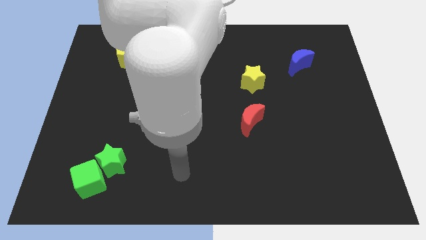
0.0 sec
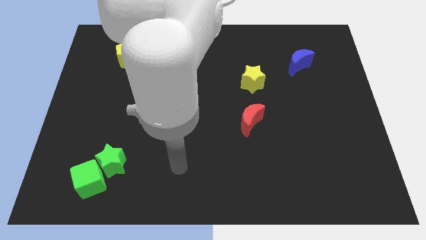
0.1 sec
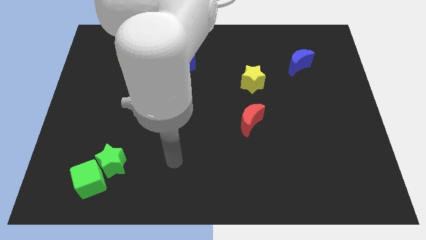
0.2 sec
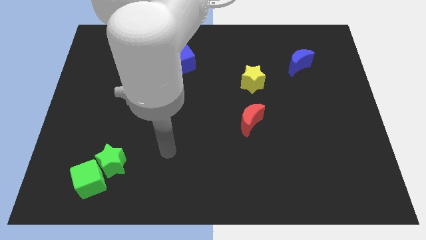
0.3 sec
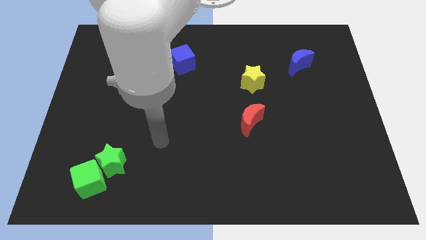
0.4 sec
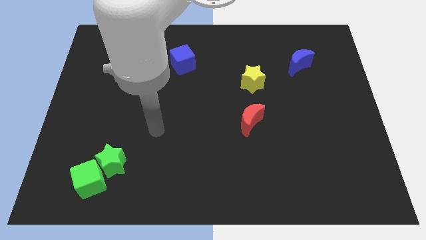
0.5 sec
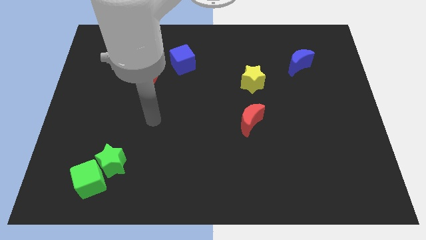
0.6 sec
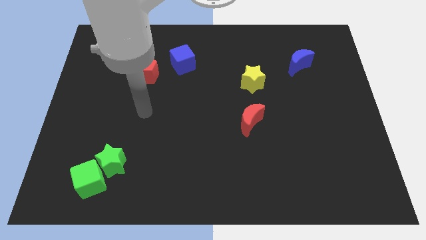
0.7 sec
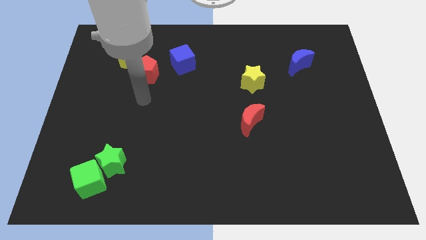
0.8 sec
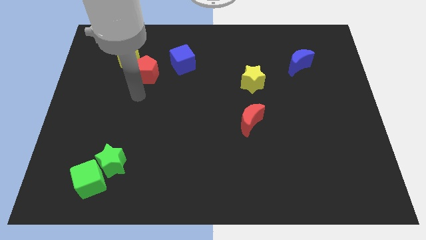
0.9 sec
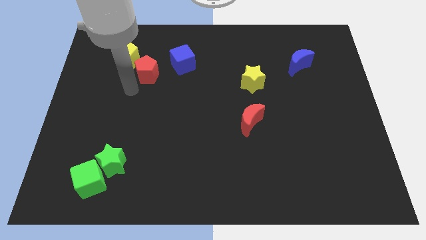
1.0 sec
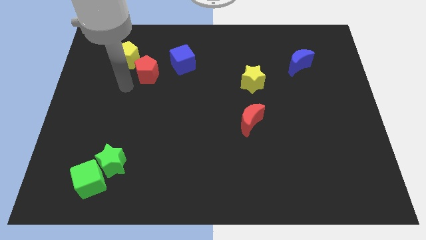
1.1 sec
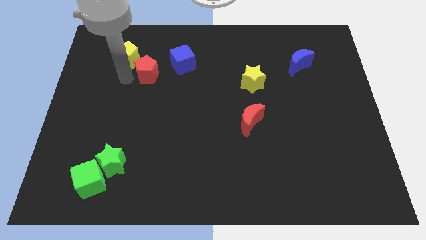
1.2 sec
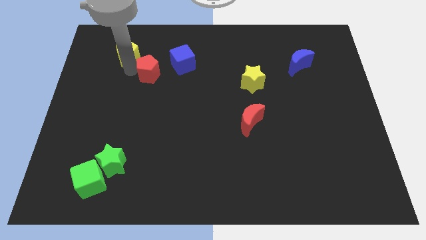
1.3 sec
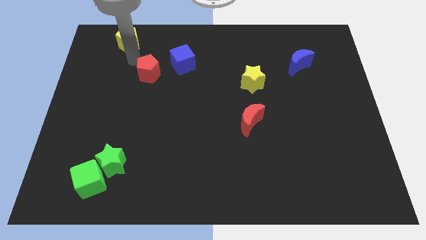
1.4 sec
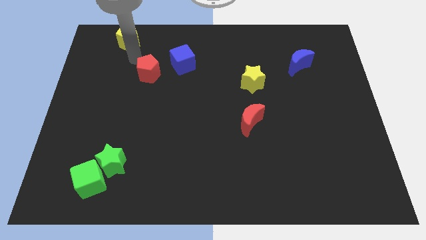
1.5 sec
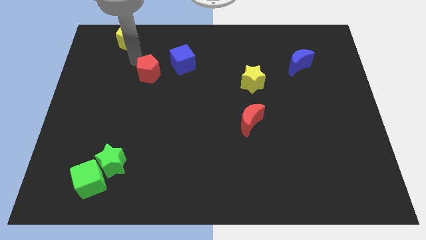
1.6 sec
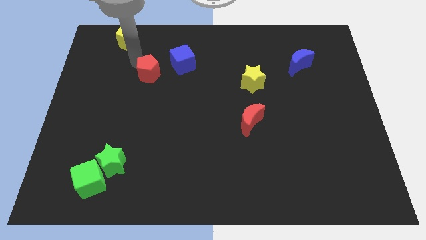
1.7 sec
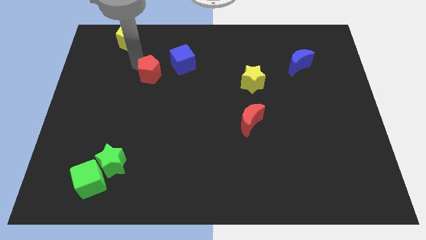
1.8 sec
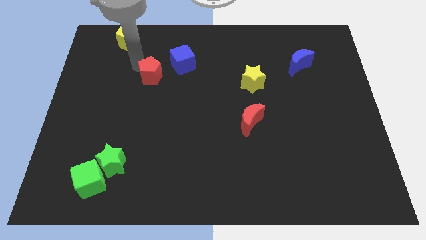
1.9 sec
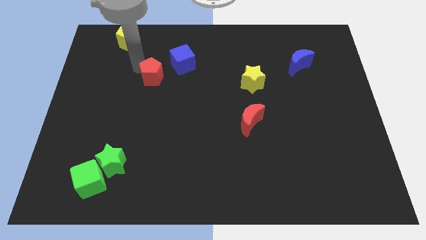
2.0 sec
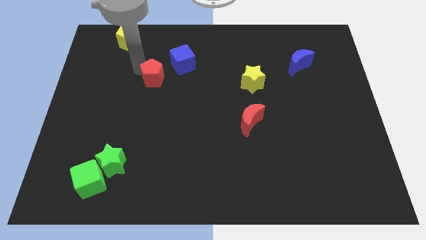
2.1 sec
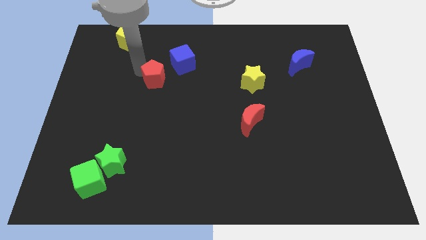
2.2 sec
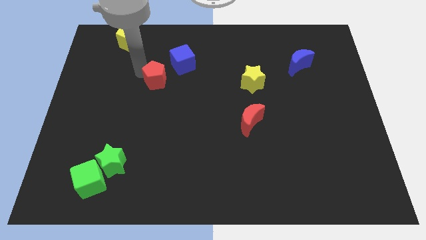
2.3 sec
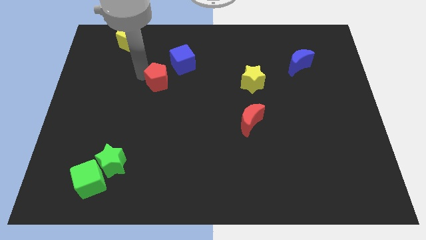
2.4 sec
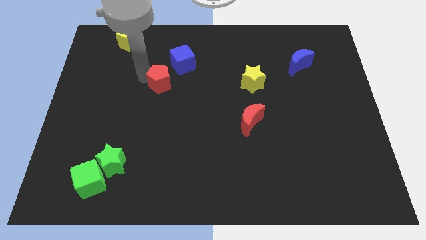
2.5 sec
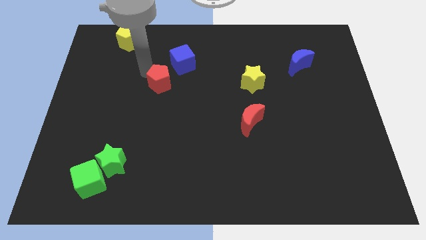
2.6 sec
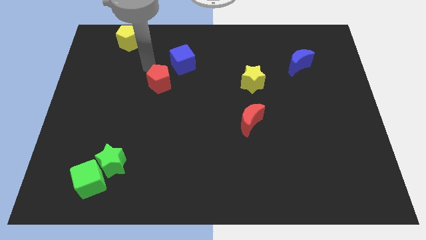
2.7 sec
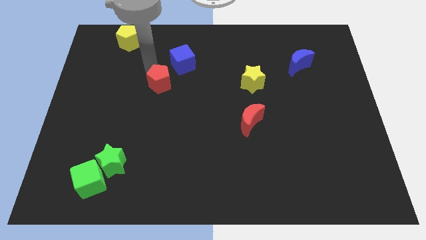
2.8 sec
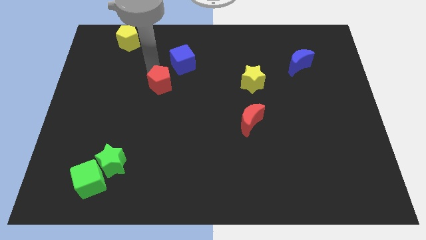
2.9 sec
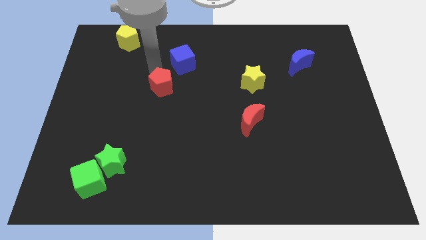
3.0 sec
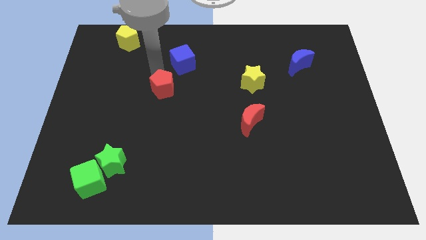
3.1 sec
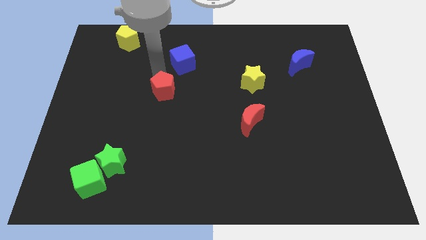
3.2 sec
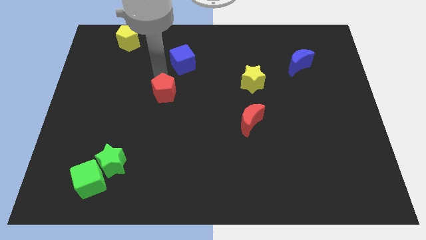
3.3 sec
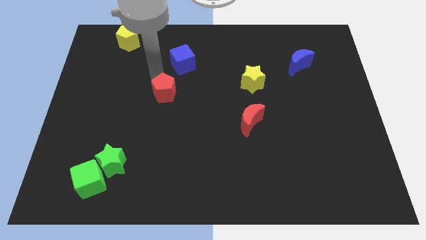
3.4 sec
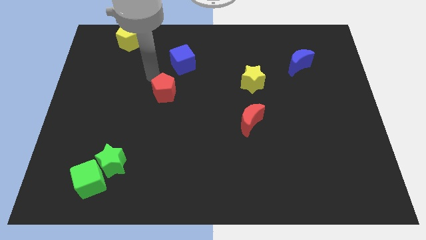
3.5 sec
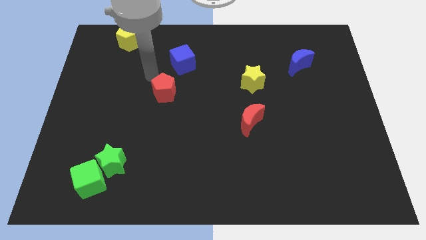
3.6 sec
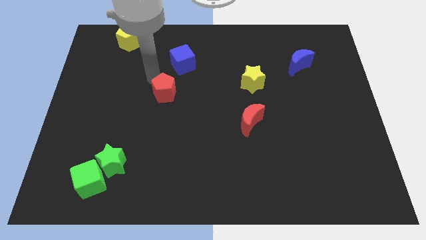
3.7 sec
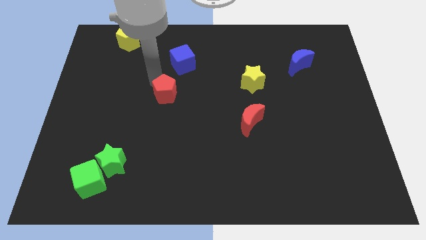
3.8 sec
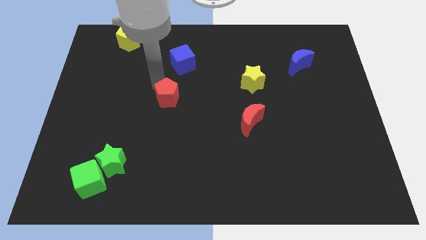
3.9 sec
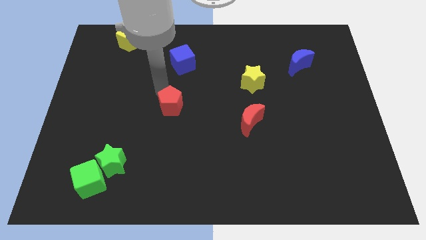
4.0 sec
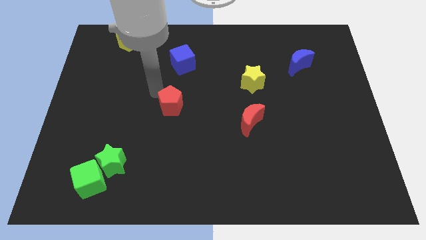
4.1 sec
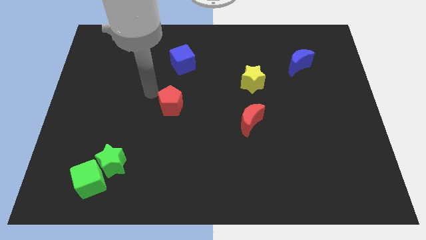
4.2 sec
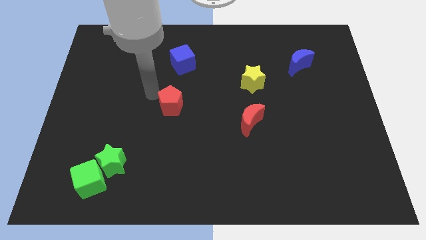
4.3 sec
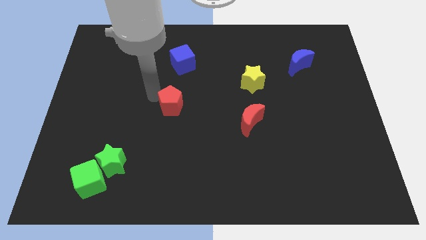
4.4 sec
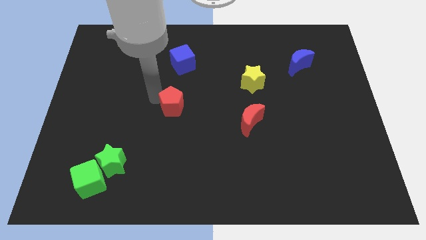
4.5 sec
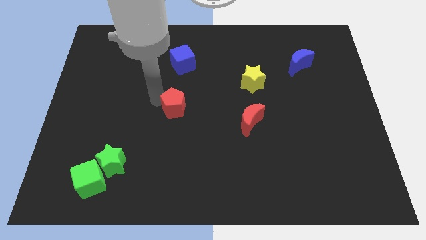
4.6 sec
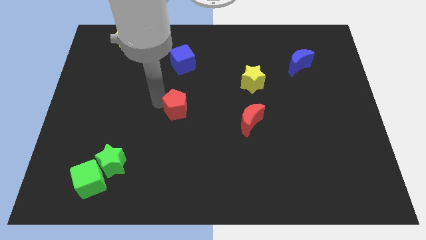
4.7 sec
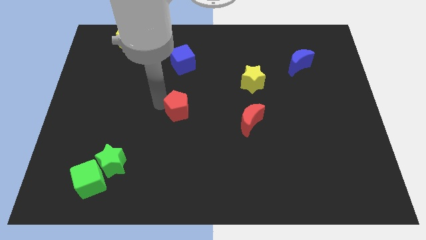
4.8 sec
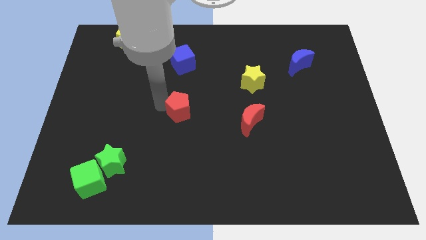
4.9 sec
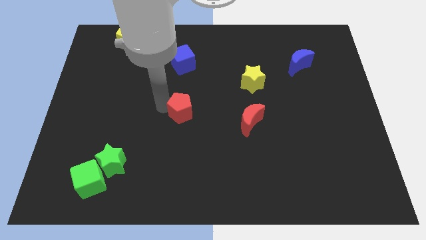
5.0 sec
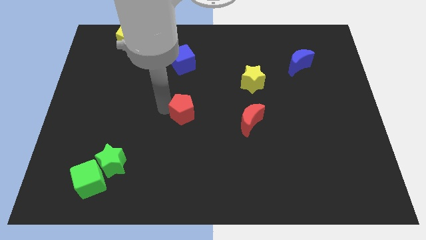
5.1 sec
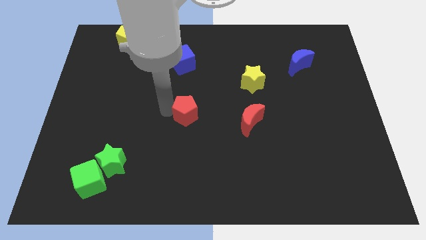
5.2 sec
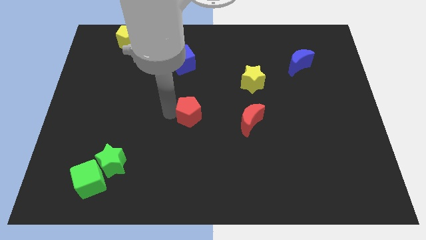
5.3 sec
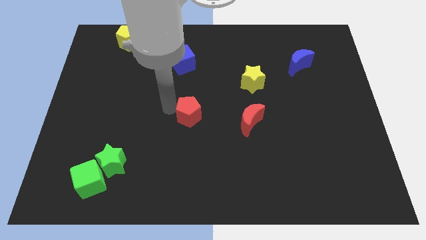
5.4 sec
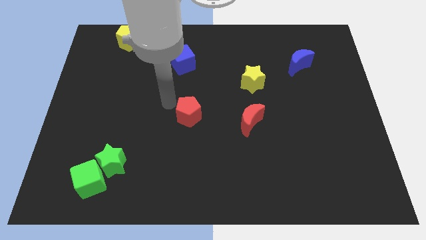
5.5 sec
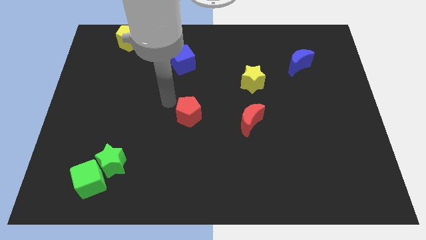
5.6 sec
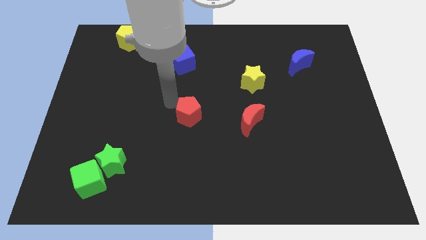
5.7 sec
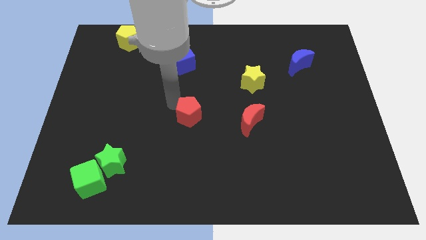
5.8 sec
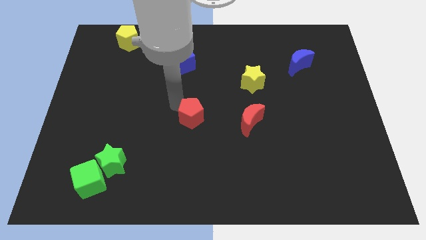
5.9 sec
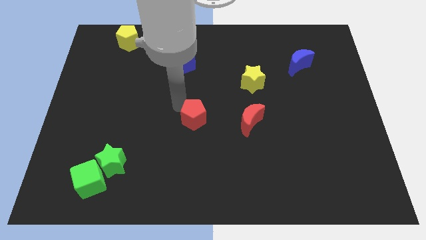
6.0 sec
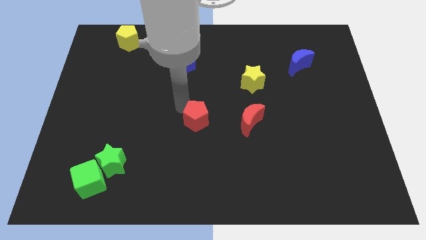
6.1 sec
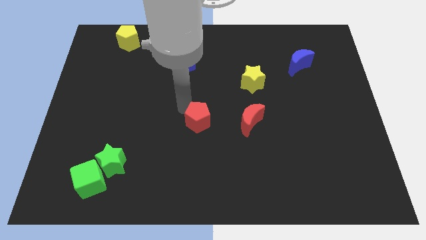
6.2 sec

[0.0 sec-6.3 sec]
push the red pentagon diagonally downwards and right

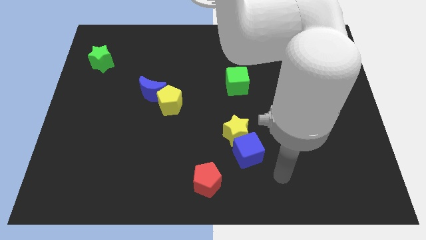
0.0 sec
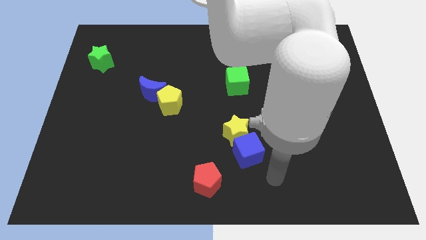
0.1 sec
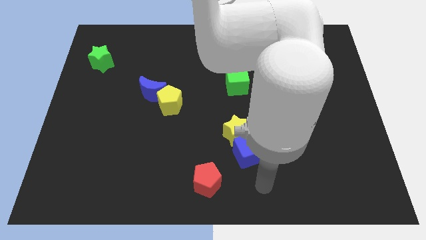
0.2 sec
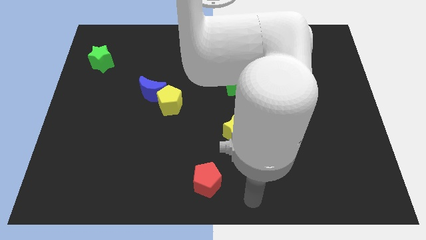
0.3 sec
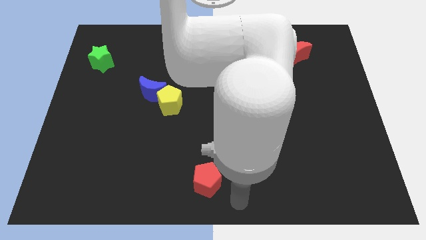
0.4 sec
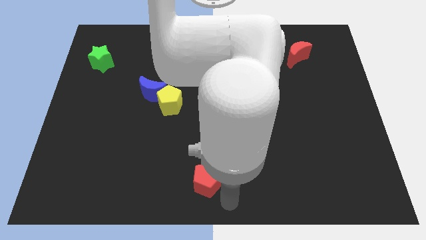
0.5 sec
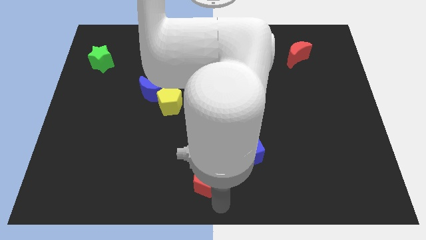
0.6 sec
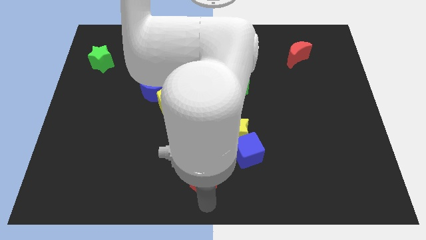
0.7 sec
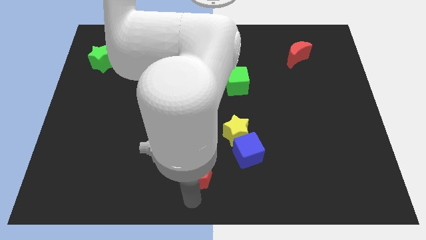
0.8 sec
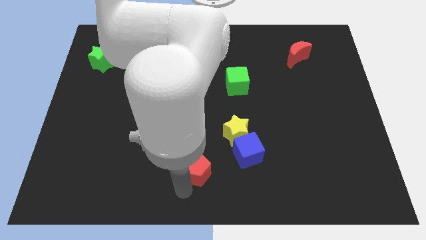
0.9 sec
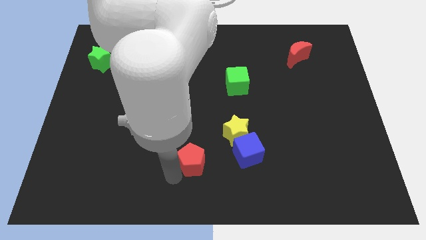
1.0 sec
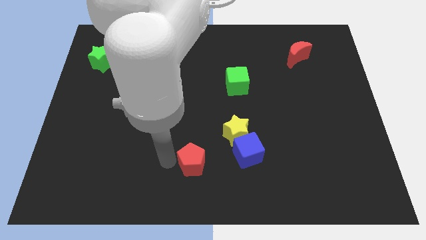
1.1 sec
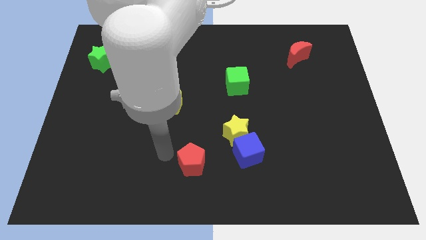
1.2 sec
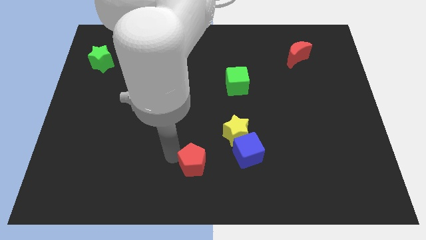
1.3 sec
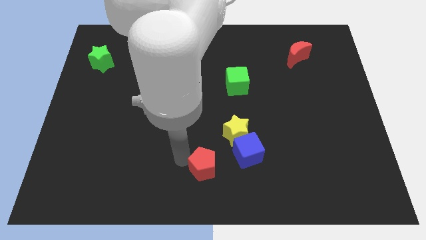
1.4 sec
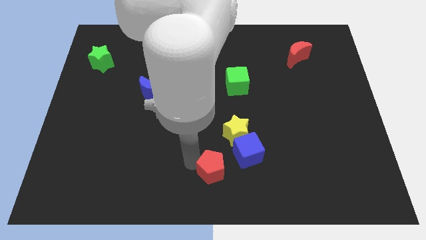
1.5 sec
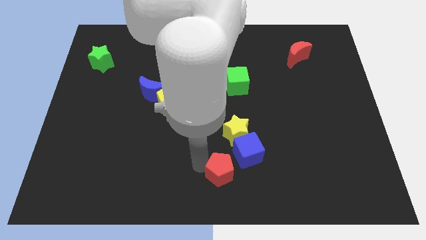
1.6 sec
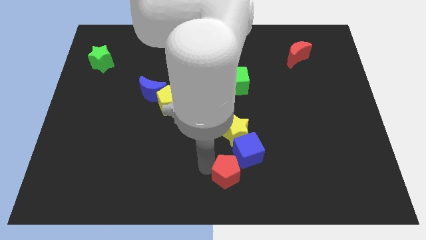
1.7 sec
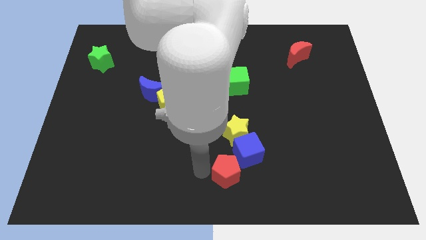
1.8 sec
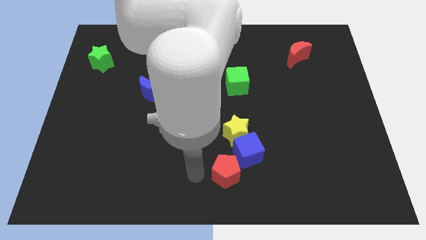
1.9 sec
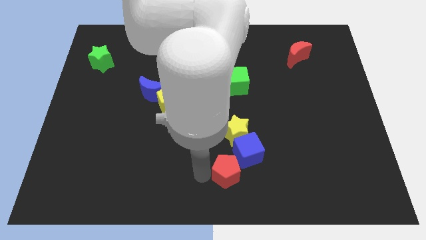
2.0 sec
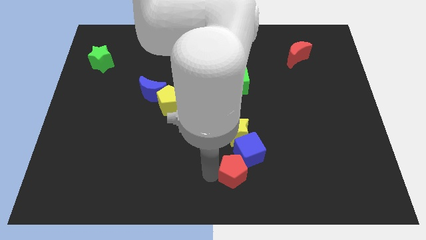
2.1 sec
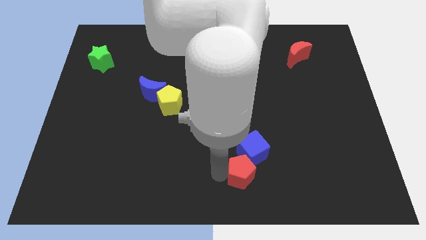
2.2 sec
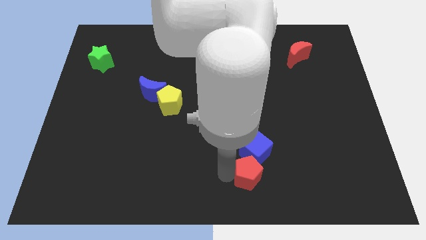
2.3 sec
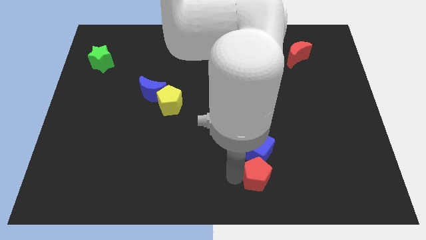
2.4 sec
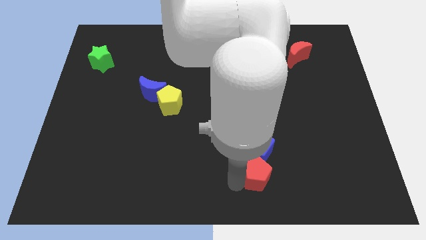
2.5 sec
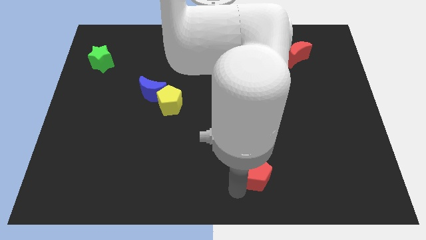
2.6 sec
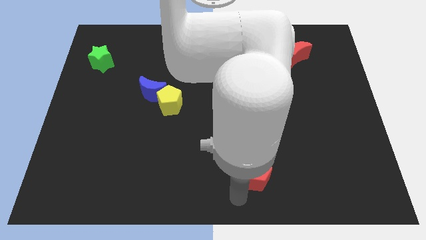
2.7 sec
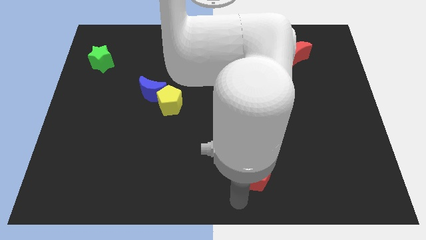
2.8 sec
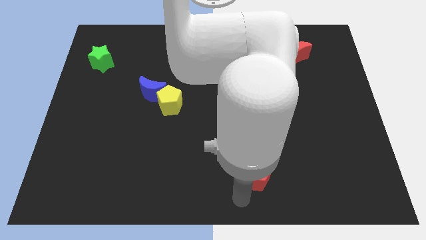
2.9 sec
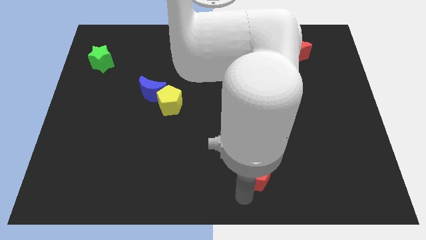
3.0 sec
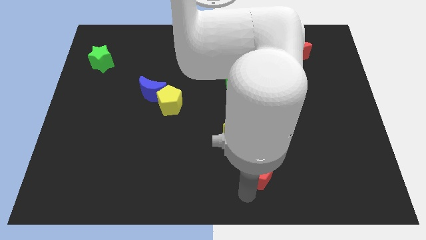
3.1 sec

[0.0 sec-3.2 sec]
slide the red pentagon diagonally upwards and right a little
